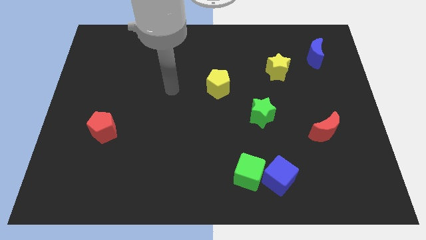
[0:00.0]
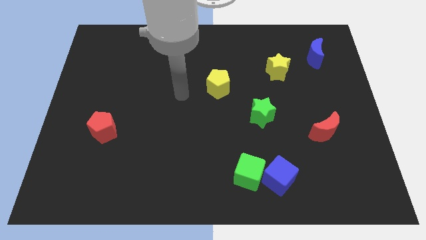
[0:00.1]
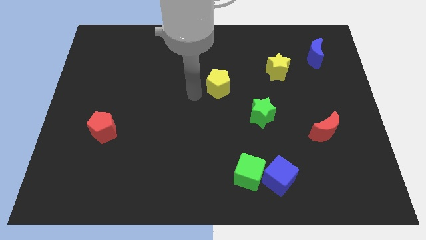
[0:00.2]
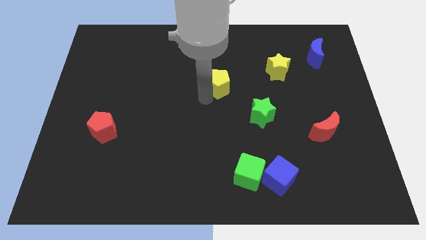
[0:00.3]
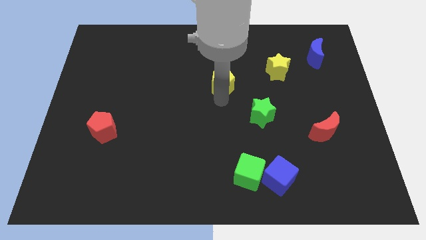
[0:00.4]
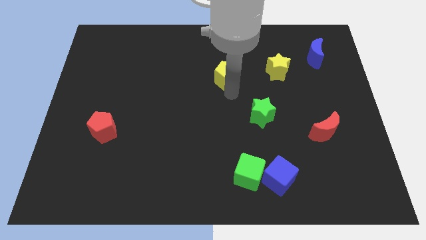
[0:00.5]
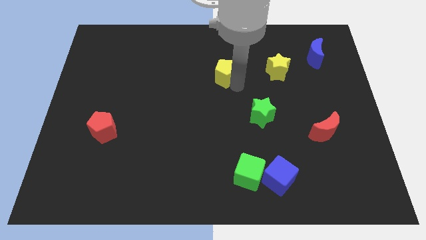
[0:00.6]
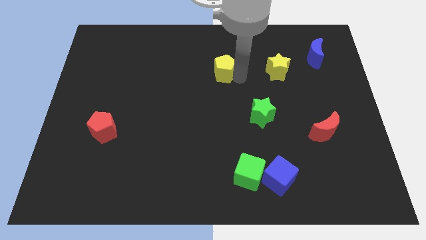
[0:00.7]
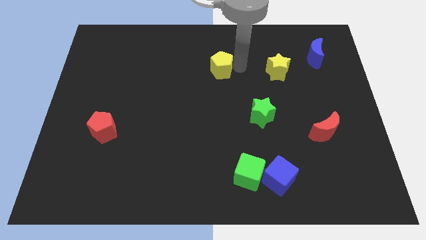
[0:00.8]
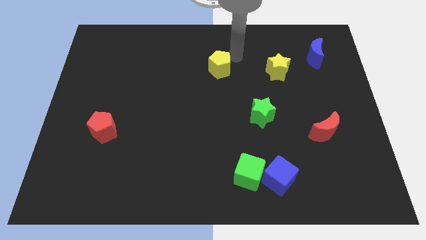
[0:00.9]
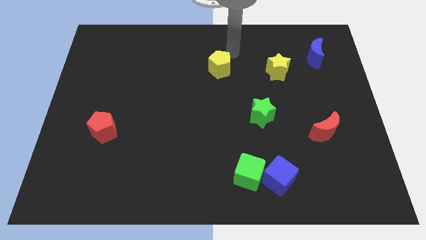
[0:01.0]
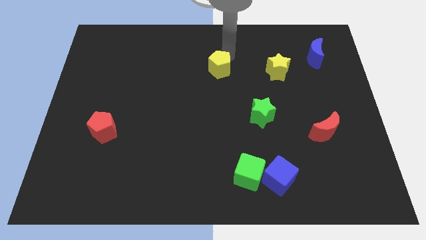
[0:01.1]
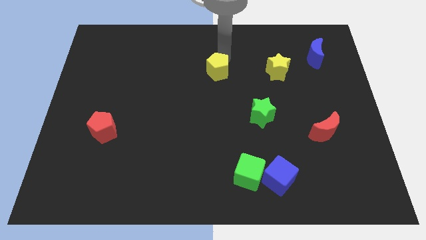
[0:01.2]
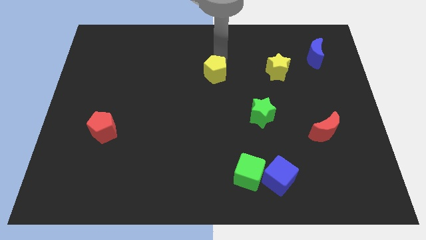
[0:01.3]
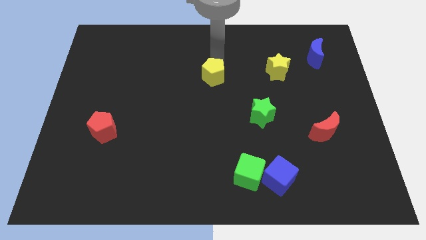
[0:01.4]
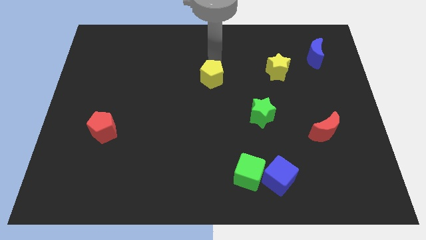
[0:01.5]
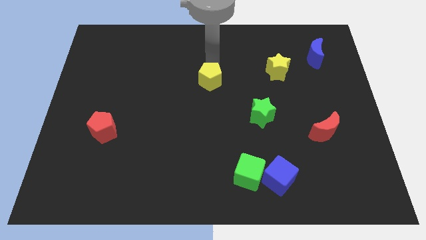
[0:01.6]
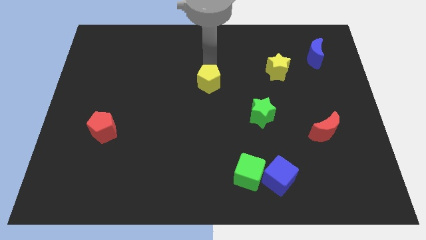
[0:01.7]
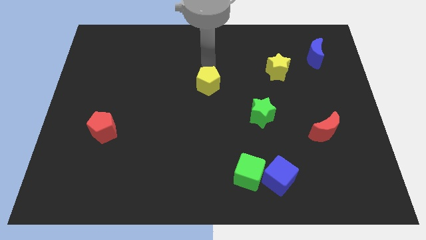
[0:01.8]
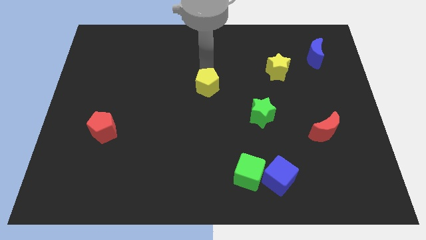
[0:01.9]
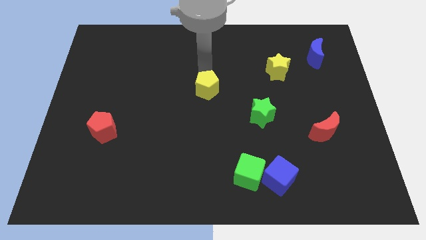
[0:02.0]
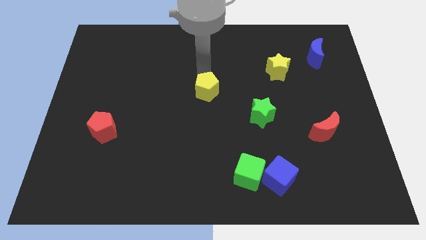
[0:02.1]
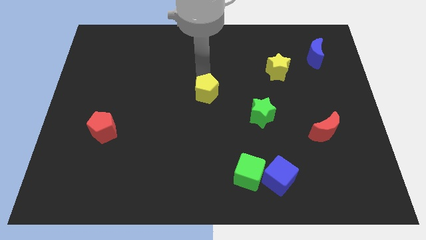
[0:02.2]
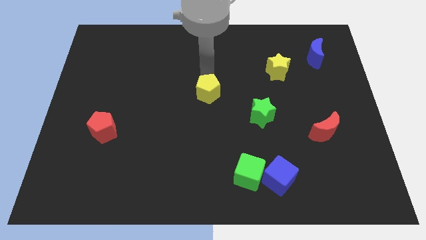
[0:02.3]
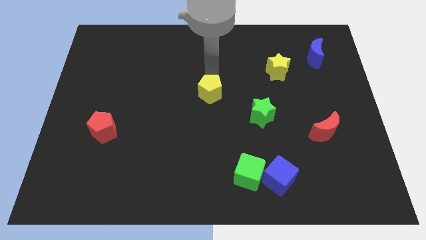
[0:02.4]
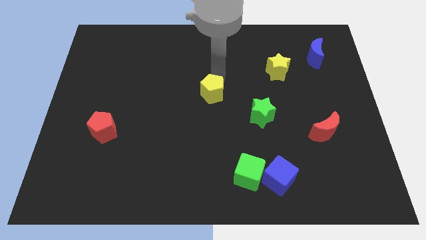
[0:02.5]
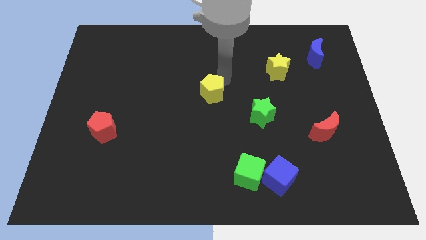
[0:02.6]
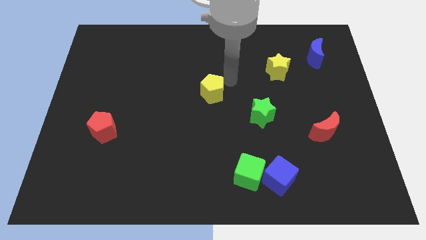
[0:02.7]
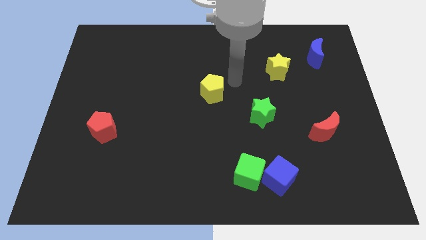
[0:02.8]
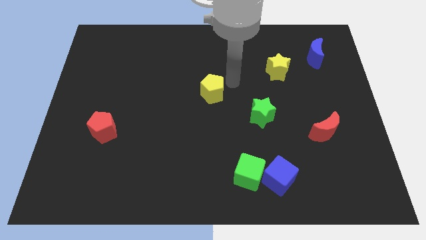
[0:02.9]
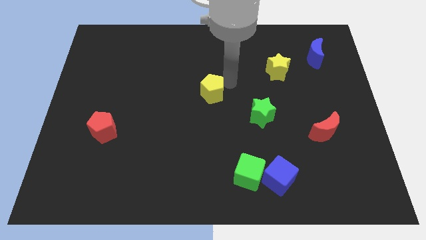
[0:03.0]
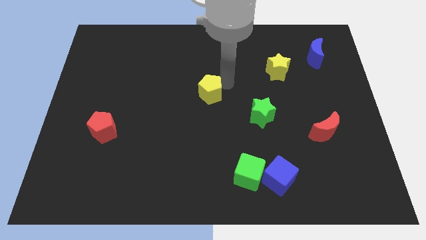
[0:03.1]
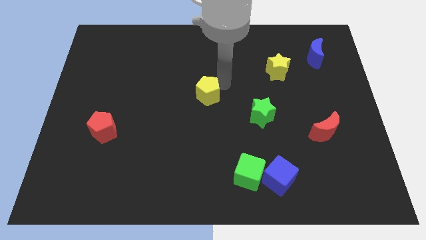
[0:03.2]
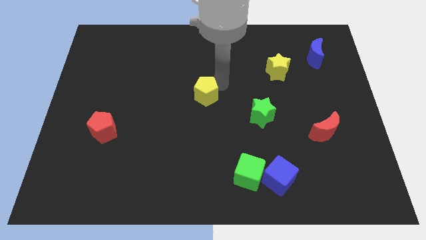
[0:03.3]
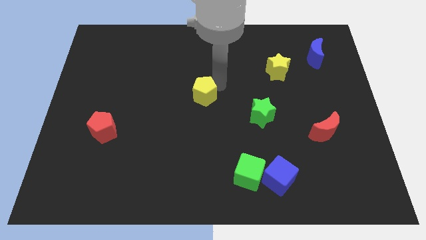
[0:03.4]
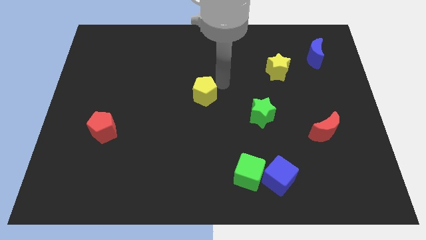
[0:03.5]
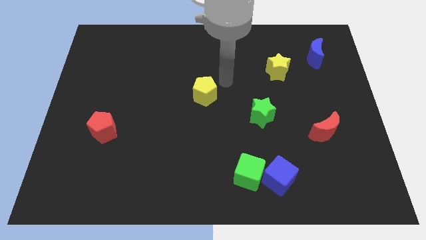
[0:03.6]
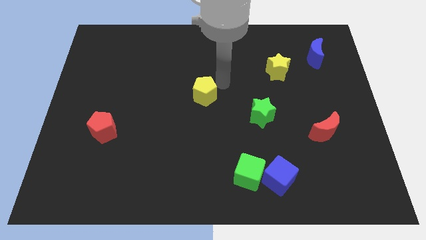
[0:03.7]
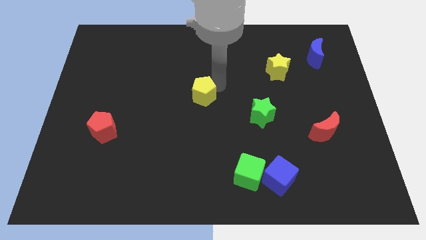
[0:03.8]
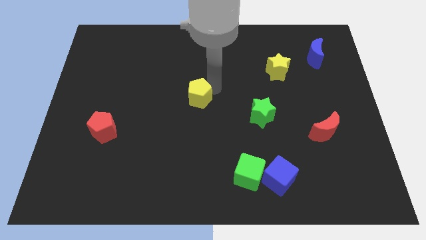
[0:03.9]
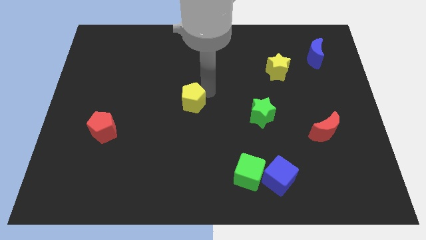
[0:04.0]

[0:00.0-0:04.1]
push the yellow pentagon downwards and to the left diagonally a bit

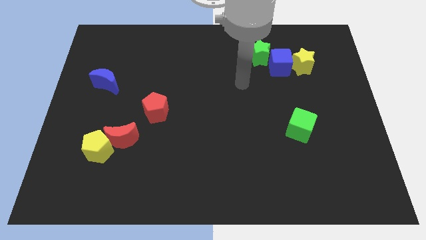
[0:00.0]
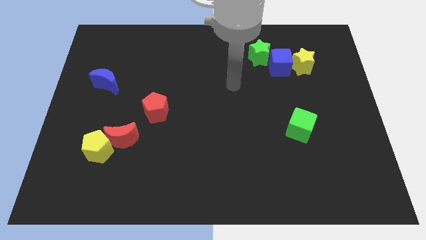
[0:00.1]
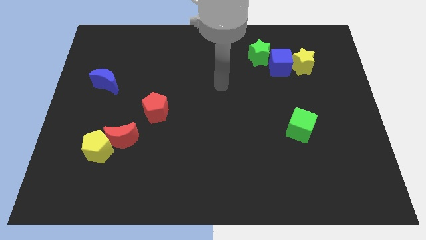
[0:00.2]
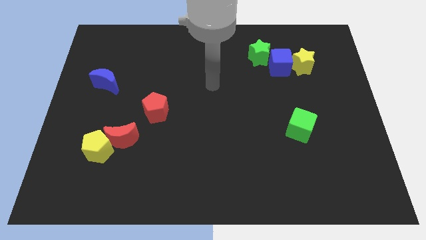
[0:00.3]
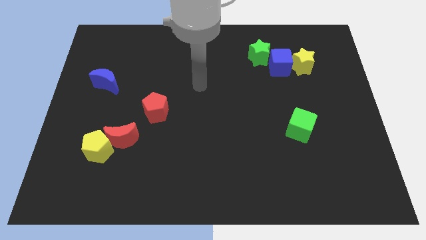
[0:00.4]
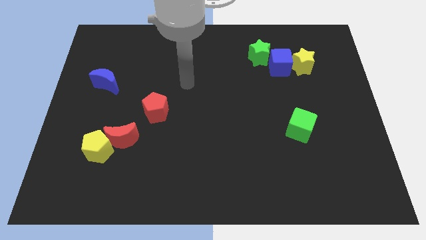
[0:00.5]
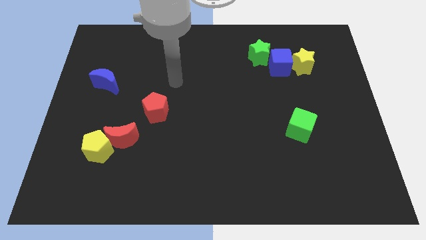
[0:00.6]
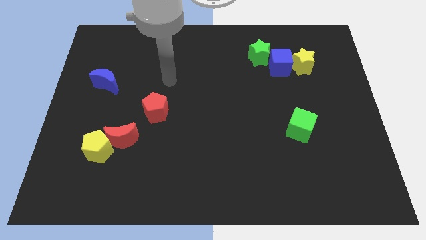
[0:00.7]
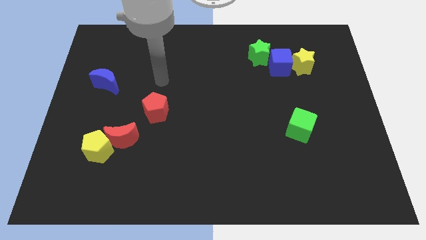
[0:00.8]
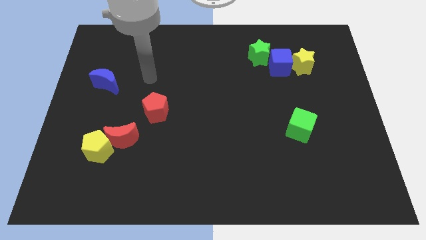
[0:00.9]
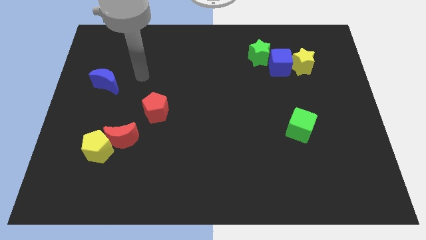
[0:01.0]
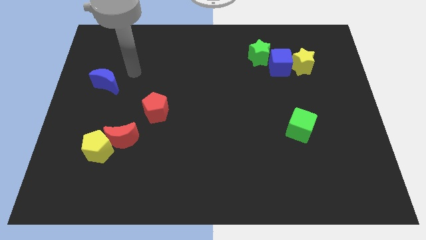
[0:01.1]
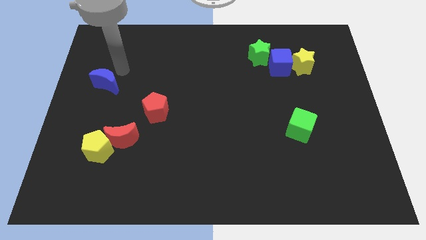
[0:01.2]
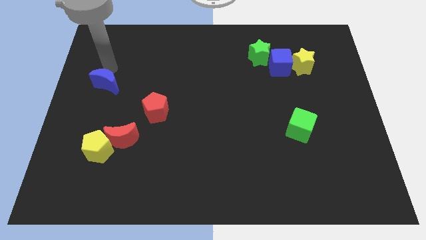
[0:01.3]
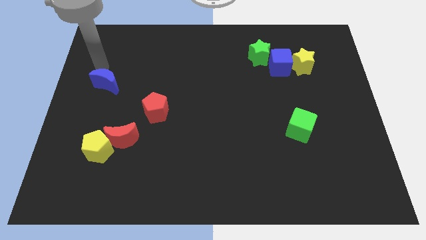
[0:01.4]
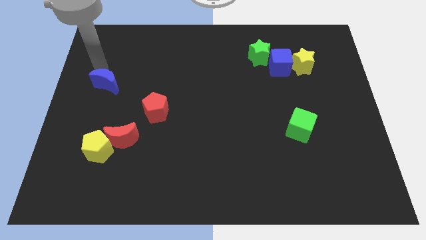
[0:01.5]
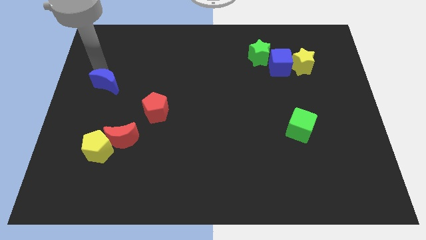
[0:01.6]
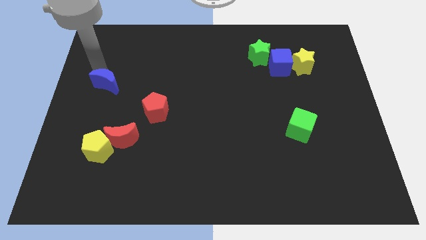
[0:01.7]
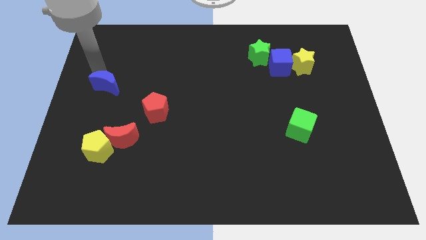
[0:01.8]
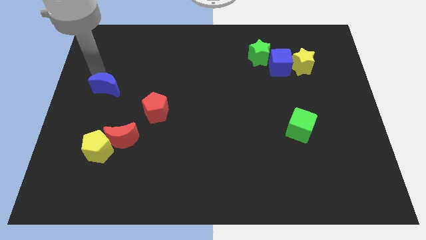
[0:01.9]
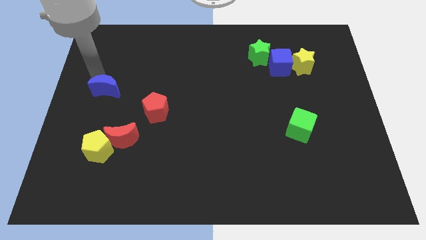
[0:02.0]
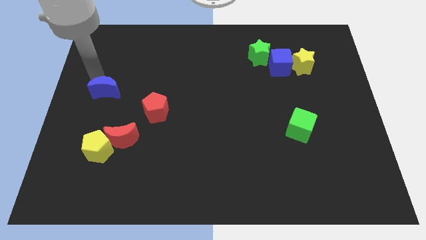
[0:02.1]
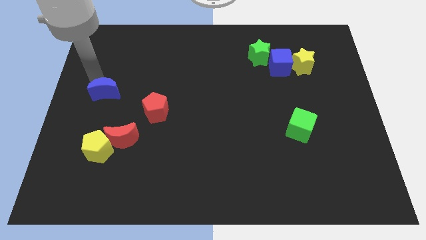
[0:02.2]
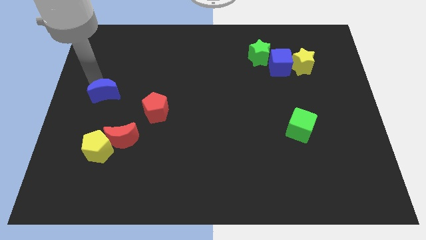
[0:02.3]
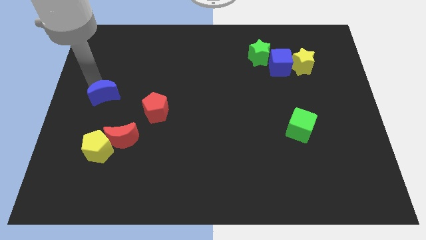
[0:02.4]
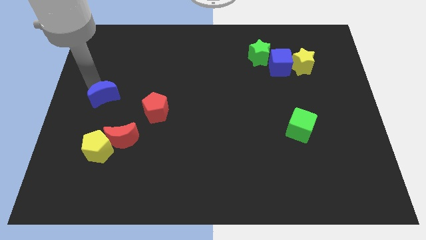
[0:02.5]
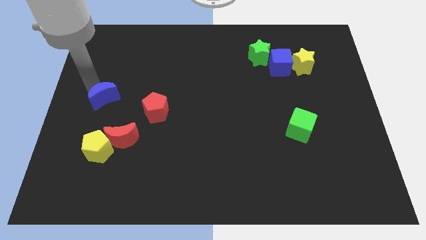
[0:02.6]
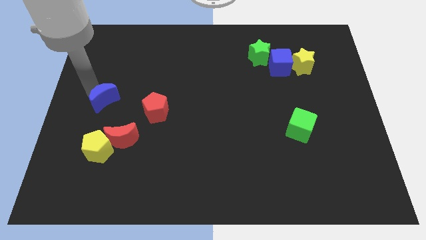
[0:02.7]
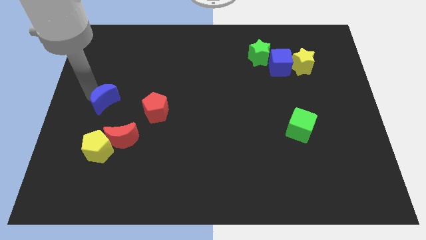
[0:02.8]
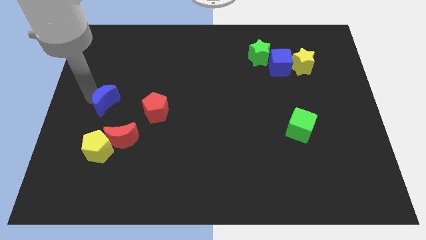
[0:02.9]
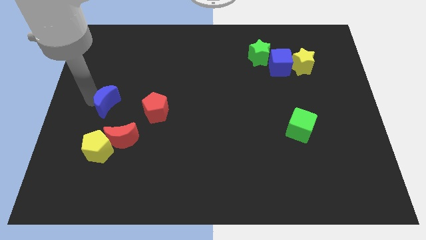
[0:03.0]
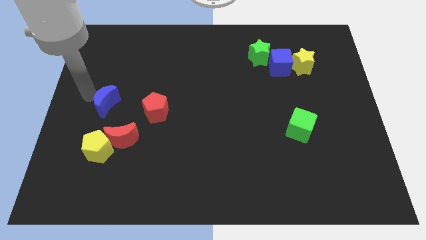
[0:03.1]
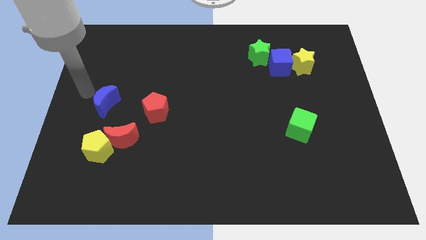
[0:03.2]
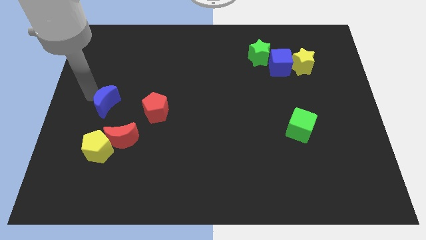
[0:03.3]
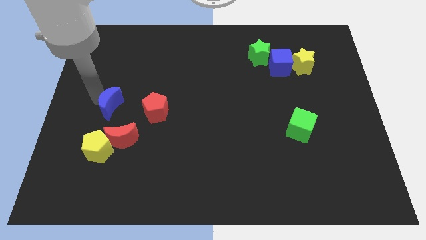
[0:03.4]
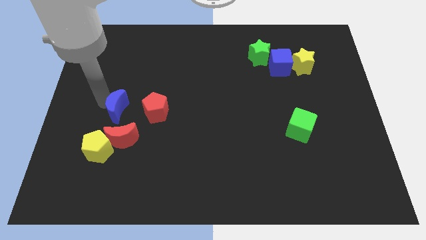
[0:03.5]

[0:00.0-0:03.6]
push the blue moon downwards and to the right somewhat
